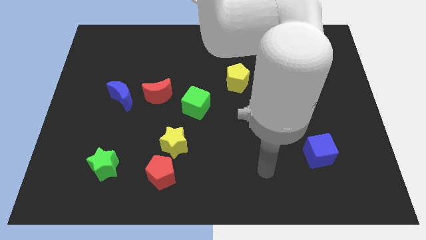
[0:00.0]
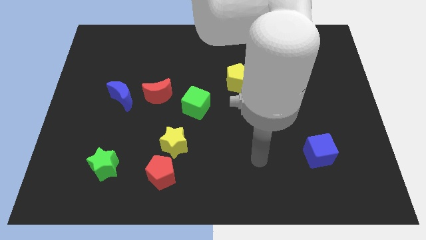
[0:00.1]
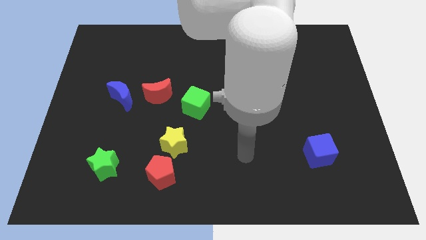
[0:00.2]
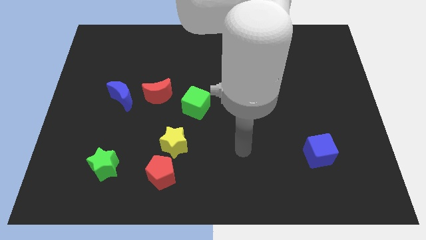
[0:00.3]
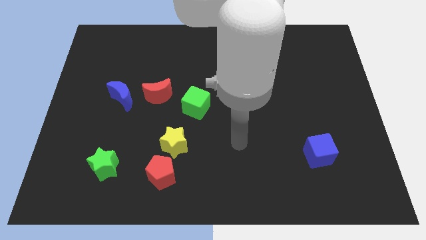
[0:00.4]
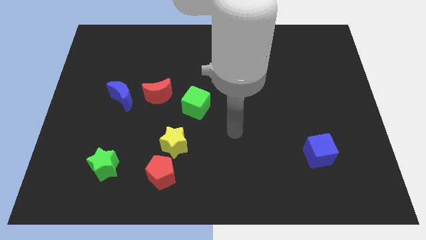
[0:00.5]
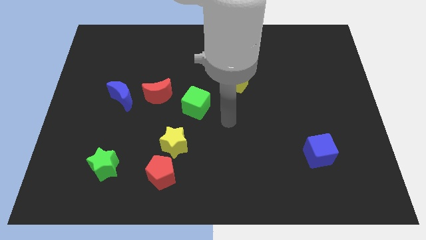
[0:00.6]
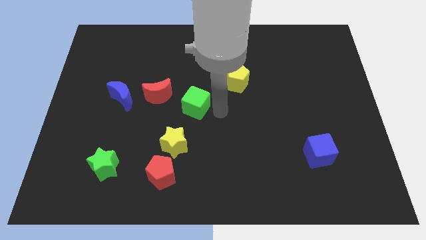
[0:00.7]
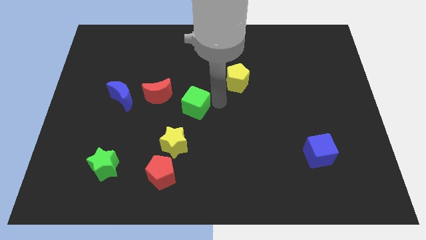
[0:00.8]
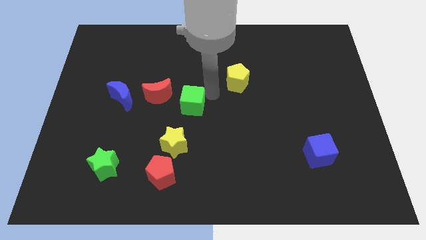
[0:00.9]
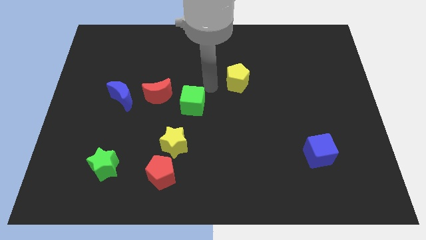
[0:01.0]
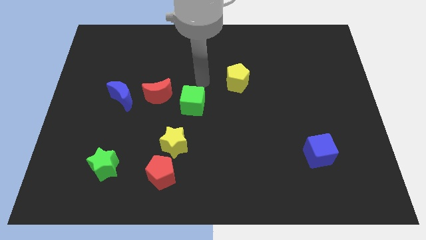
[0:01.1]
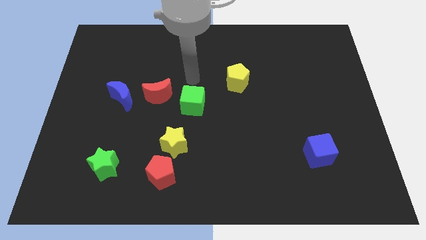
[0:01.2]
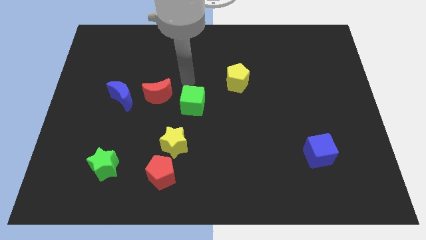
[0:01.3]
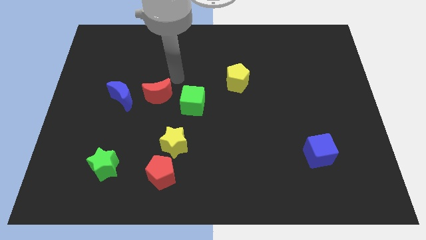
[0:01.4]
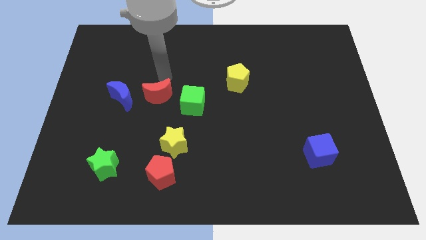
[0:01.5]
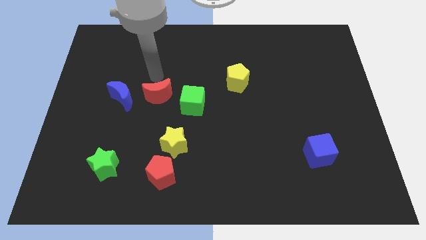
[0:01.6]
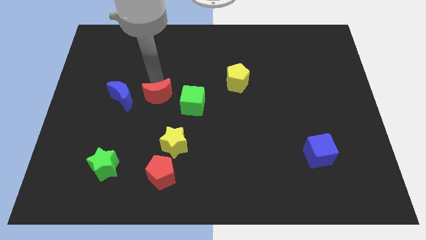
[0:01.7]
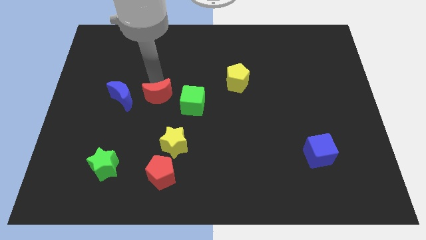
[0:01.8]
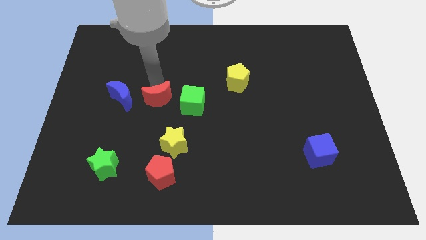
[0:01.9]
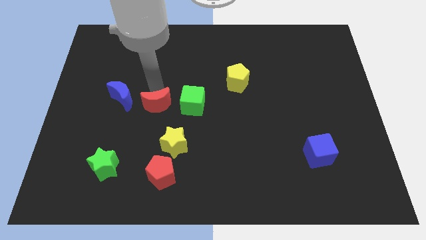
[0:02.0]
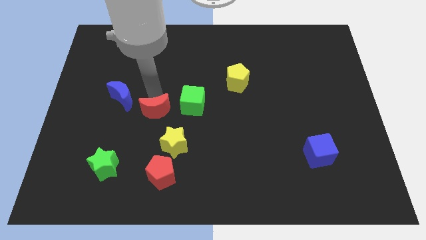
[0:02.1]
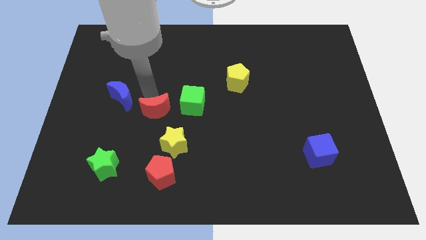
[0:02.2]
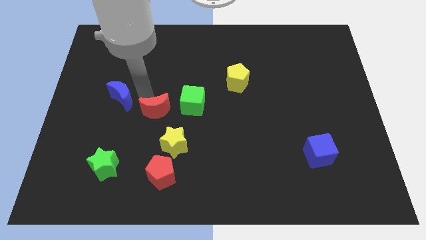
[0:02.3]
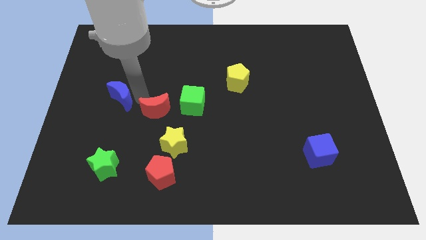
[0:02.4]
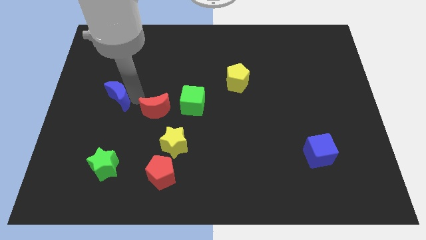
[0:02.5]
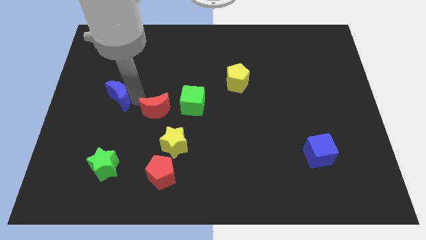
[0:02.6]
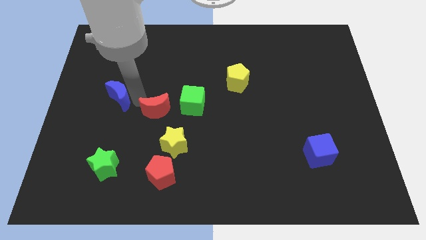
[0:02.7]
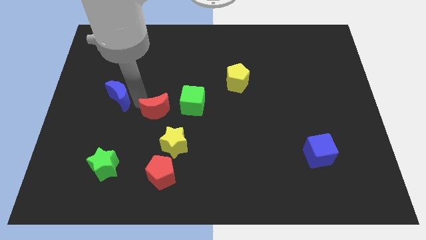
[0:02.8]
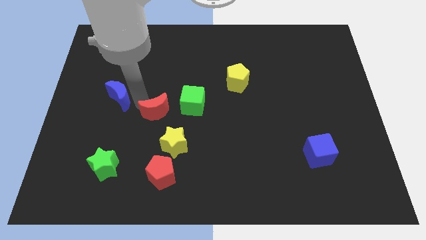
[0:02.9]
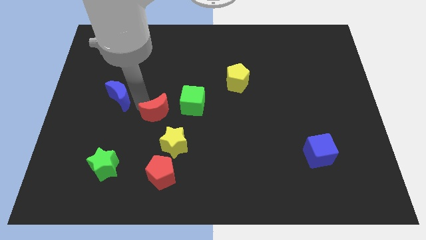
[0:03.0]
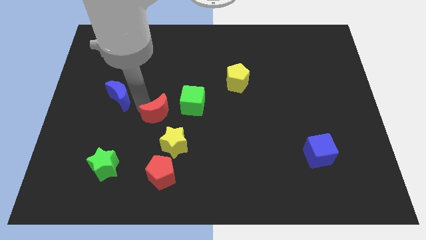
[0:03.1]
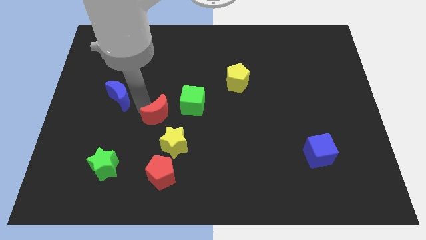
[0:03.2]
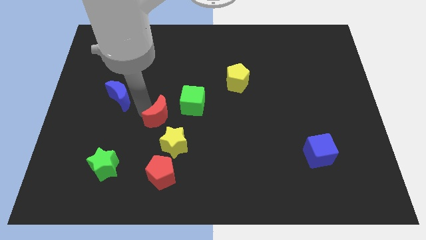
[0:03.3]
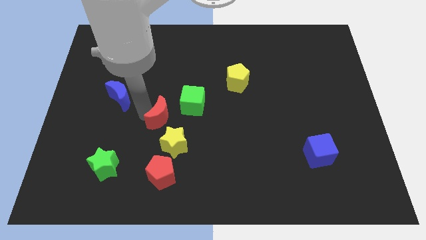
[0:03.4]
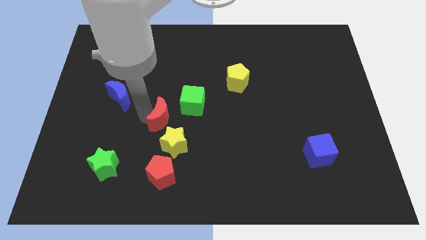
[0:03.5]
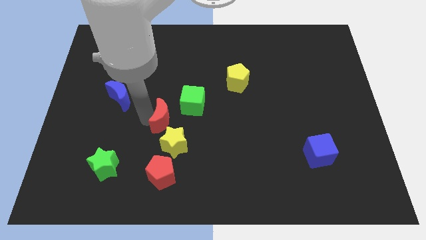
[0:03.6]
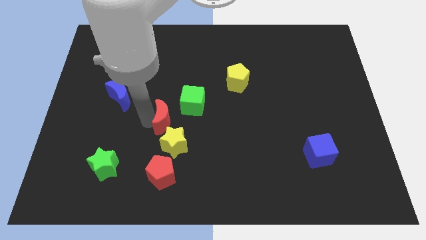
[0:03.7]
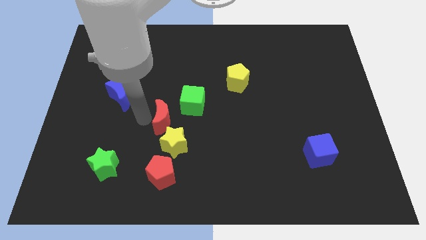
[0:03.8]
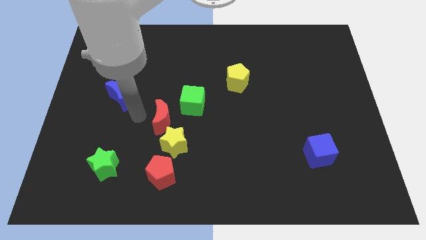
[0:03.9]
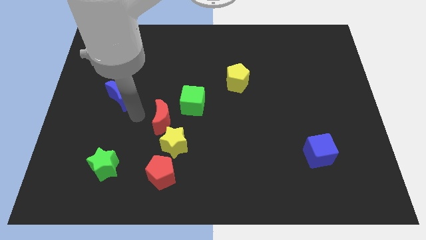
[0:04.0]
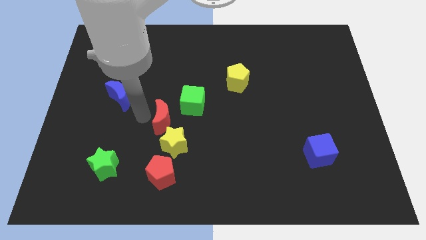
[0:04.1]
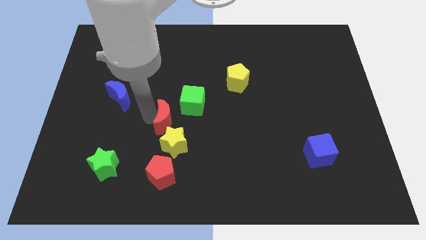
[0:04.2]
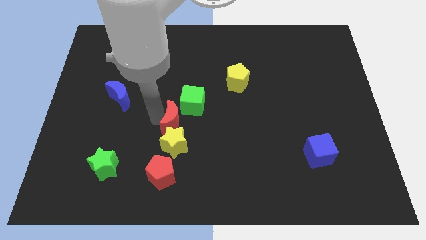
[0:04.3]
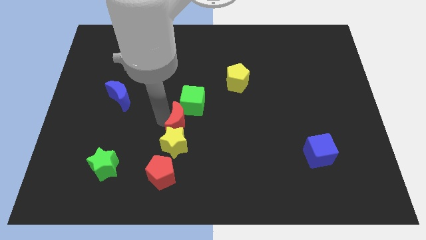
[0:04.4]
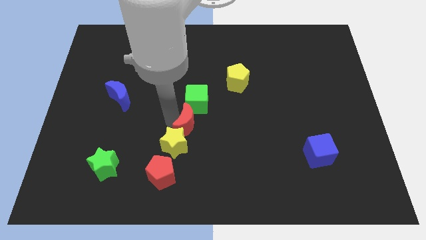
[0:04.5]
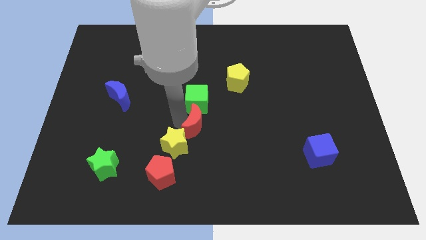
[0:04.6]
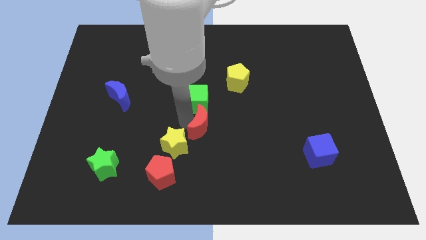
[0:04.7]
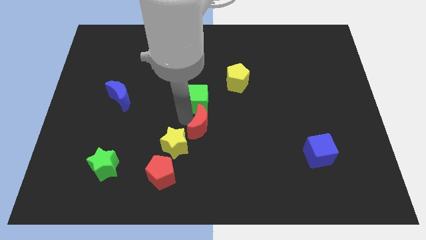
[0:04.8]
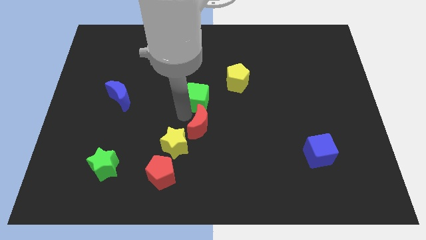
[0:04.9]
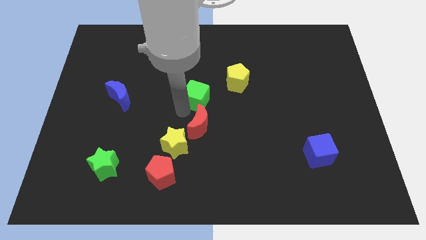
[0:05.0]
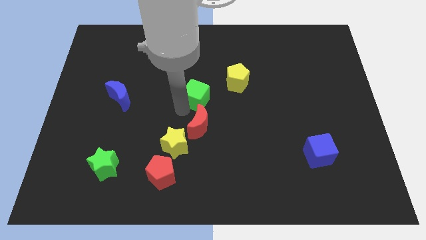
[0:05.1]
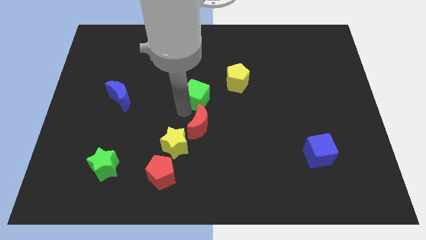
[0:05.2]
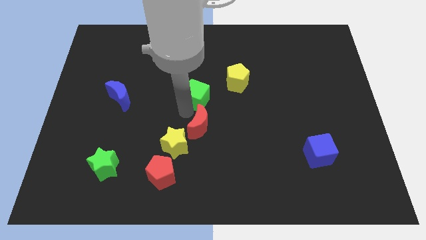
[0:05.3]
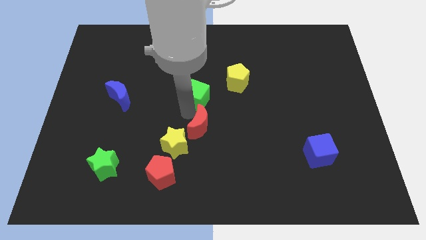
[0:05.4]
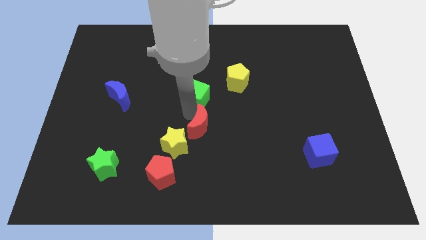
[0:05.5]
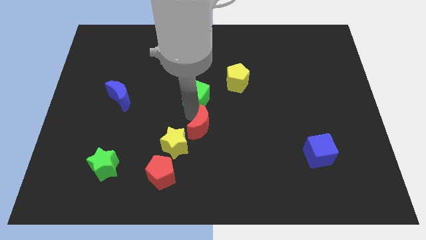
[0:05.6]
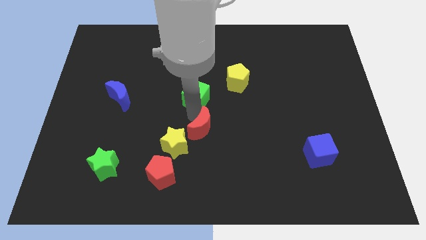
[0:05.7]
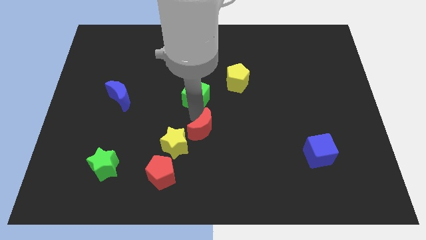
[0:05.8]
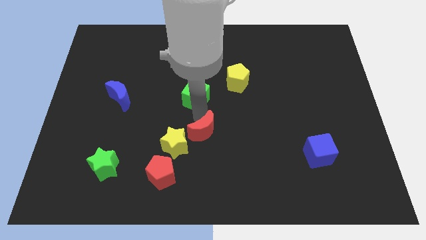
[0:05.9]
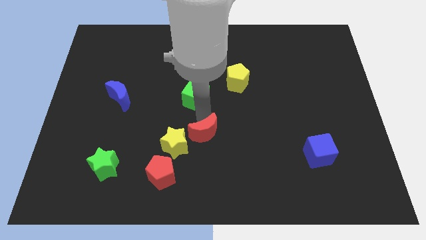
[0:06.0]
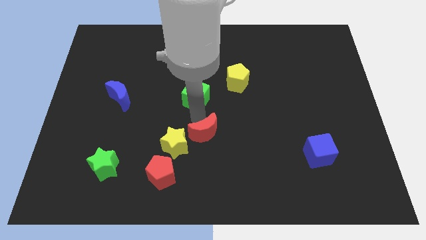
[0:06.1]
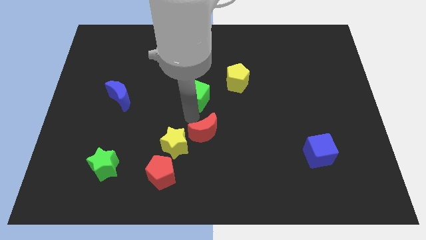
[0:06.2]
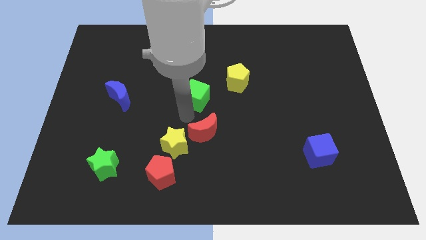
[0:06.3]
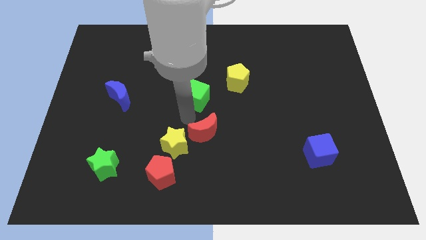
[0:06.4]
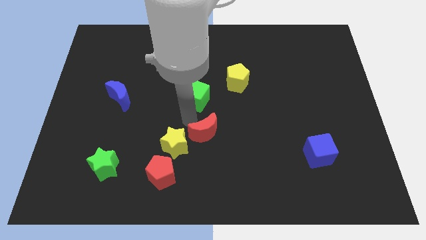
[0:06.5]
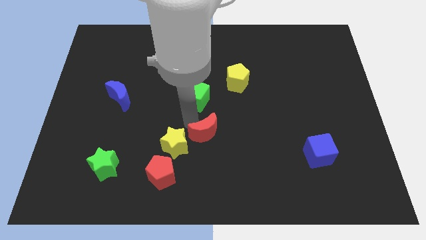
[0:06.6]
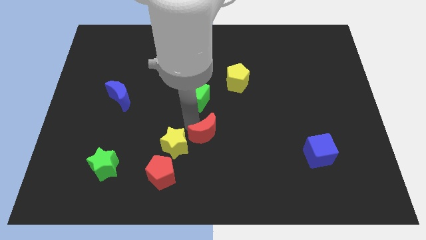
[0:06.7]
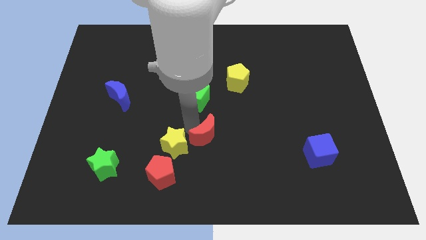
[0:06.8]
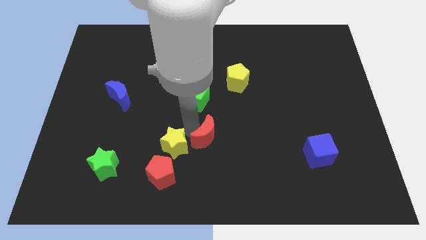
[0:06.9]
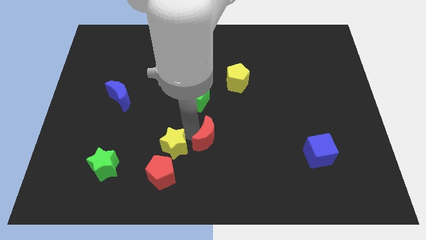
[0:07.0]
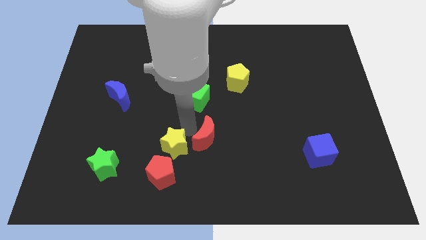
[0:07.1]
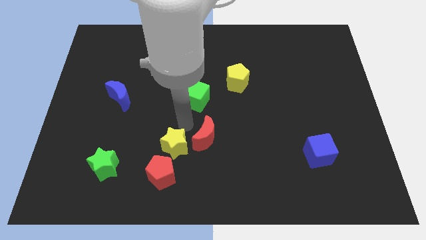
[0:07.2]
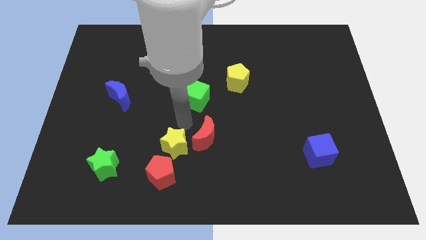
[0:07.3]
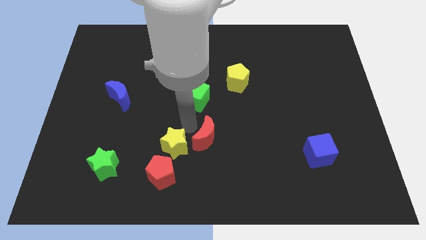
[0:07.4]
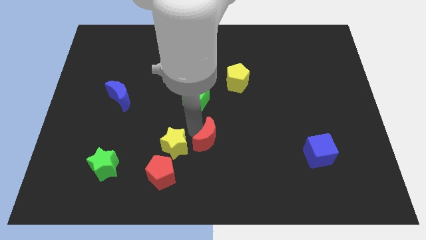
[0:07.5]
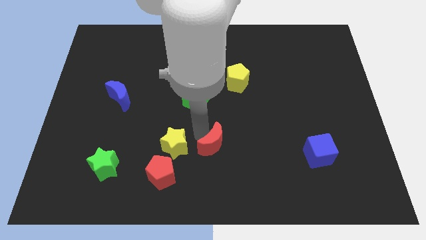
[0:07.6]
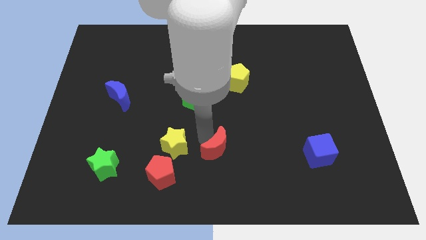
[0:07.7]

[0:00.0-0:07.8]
slide the red moon down and to the right diagonally

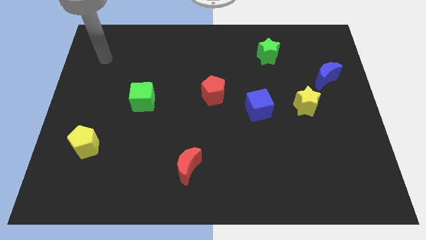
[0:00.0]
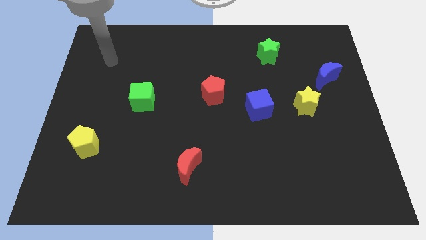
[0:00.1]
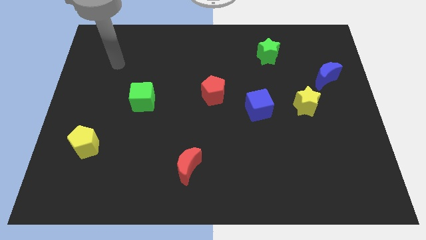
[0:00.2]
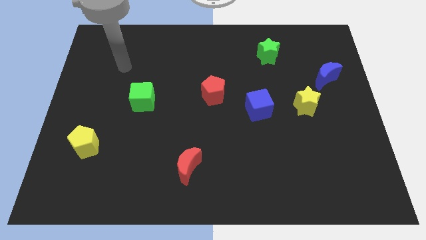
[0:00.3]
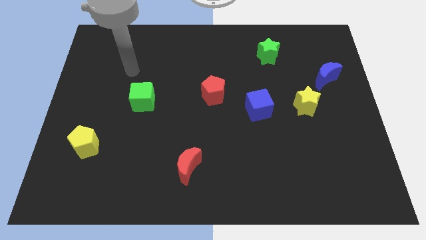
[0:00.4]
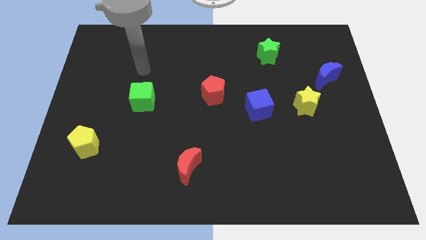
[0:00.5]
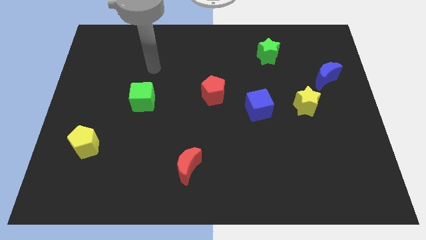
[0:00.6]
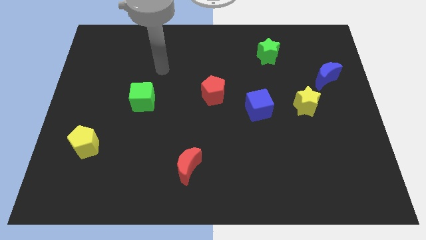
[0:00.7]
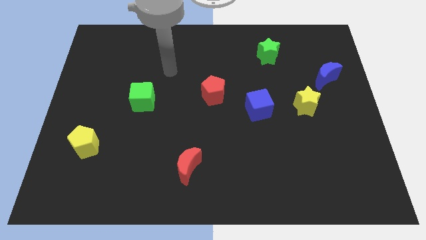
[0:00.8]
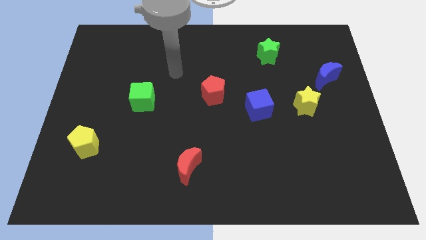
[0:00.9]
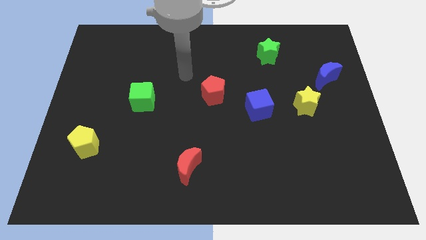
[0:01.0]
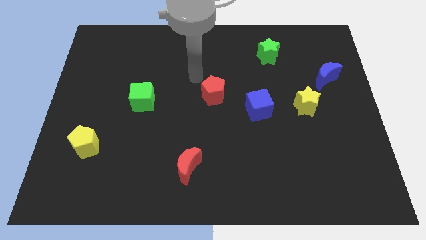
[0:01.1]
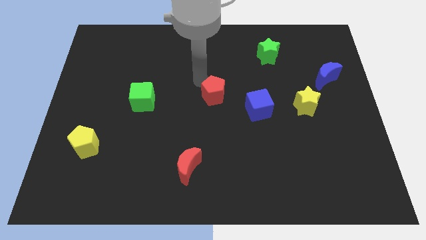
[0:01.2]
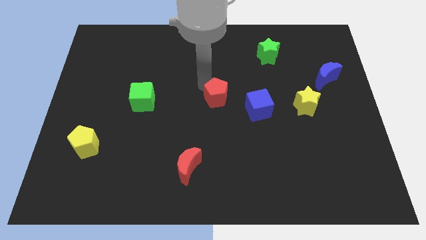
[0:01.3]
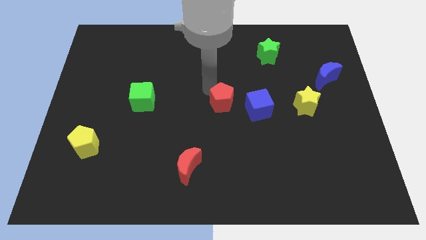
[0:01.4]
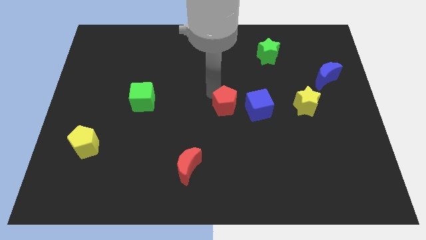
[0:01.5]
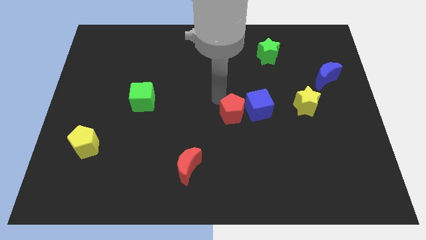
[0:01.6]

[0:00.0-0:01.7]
move the red pentagon diagonally down and right slightly
